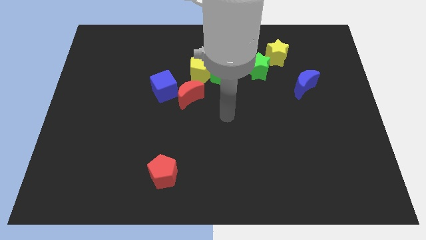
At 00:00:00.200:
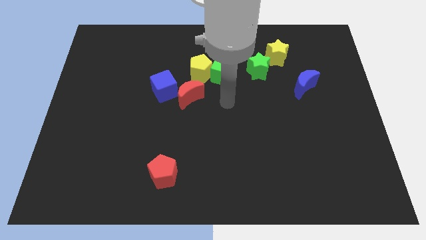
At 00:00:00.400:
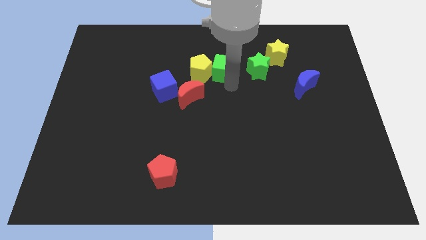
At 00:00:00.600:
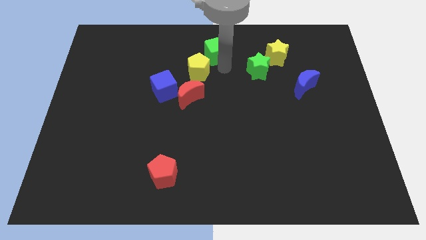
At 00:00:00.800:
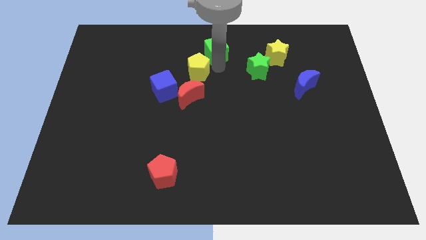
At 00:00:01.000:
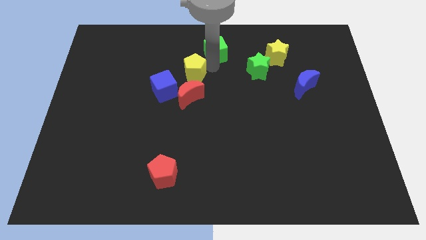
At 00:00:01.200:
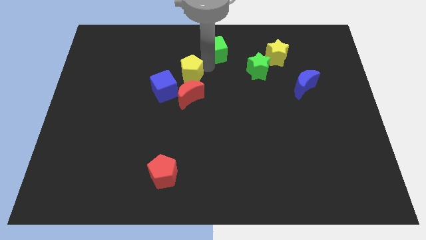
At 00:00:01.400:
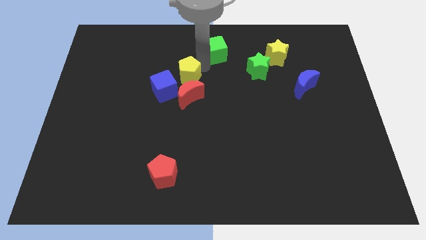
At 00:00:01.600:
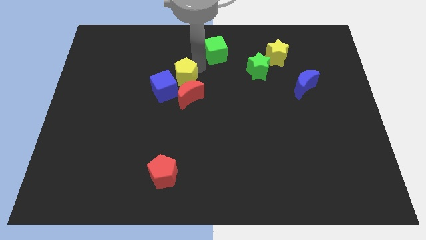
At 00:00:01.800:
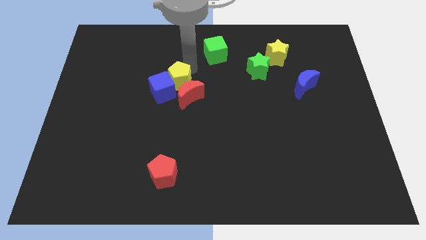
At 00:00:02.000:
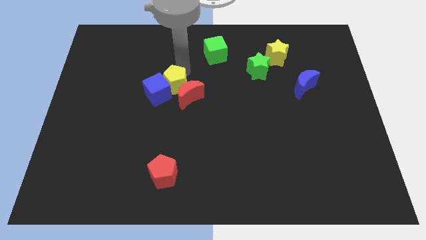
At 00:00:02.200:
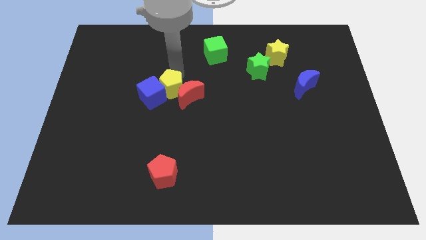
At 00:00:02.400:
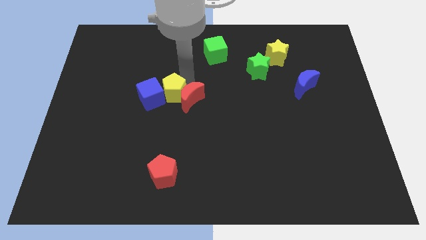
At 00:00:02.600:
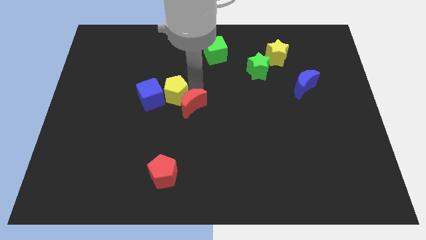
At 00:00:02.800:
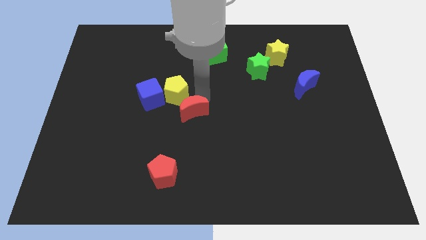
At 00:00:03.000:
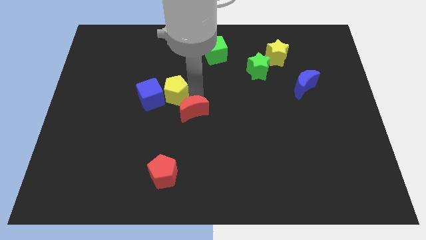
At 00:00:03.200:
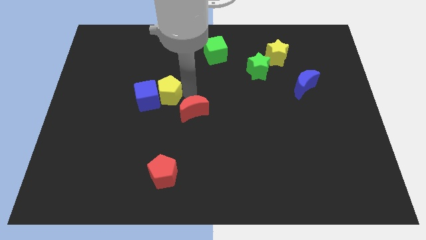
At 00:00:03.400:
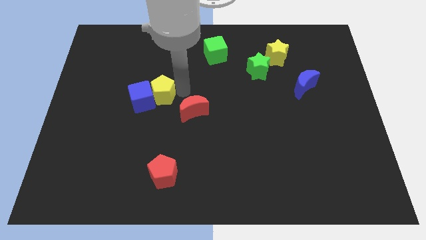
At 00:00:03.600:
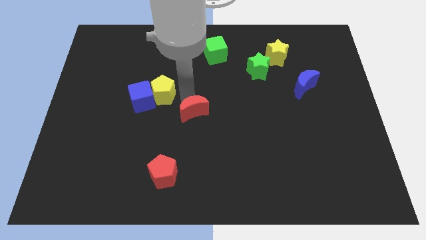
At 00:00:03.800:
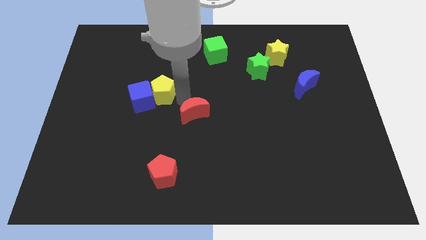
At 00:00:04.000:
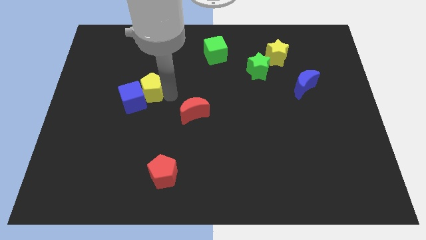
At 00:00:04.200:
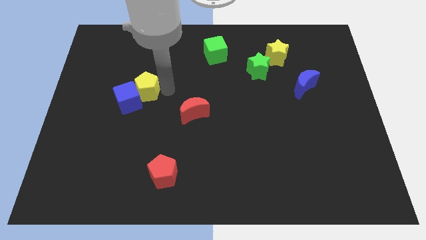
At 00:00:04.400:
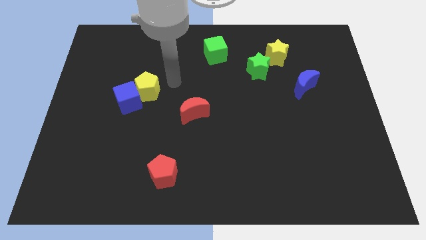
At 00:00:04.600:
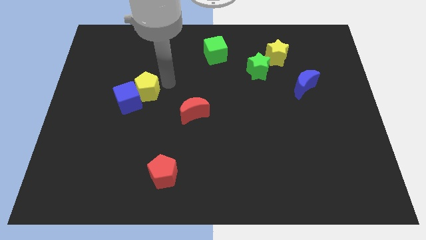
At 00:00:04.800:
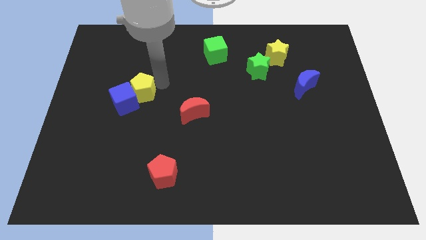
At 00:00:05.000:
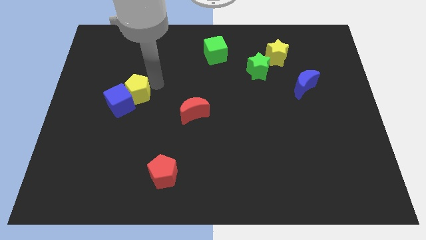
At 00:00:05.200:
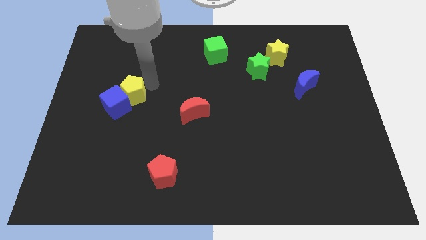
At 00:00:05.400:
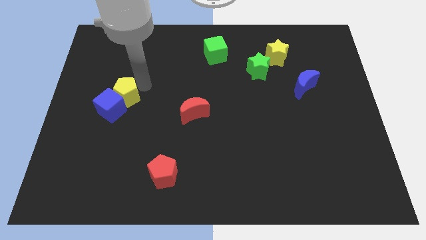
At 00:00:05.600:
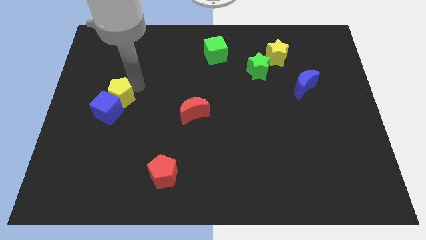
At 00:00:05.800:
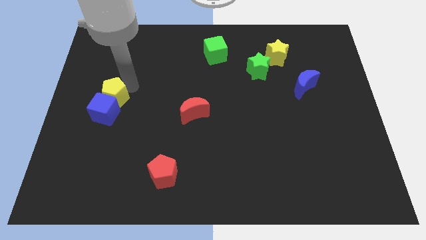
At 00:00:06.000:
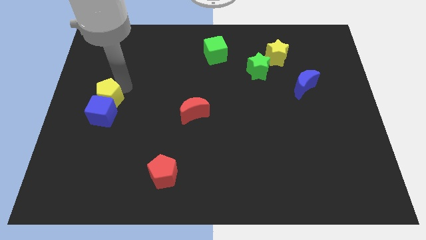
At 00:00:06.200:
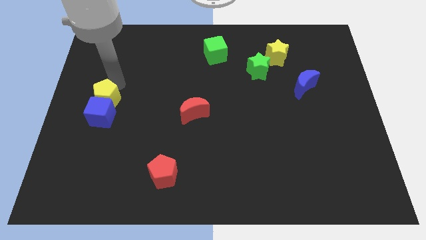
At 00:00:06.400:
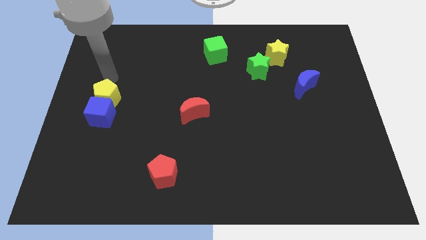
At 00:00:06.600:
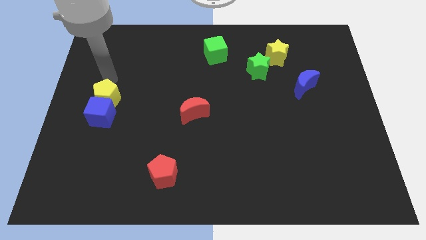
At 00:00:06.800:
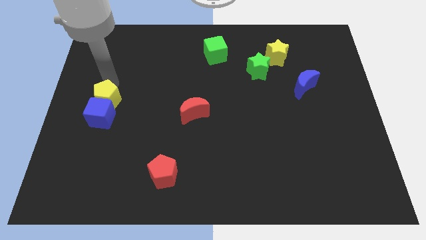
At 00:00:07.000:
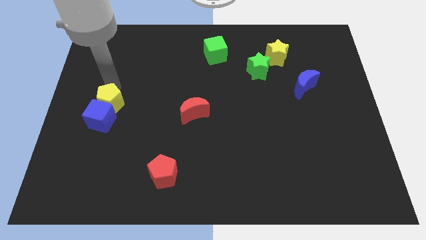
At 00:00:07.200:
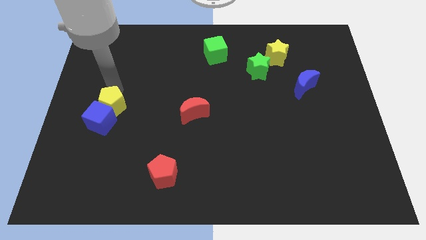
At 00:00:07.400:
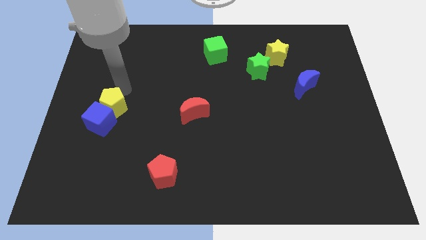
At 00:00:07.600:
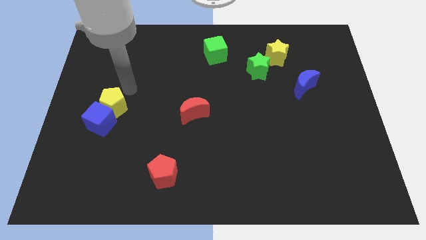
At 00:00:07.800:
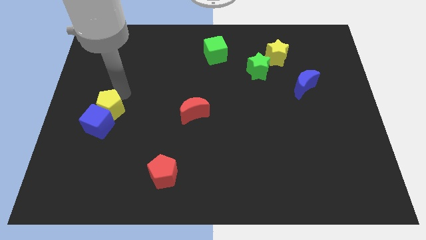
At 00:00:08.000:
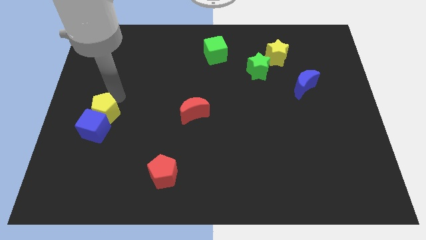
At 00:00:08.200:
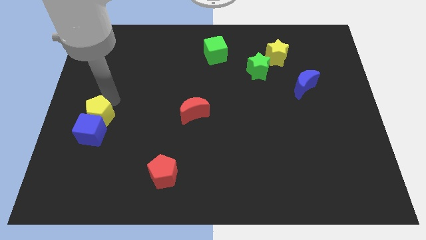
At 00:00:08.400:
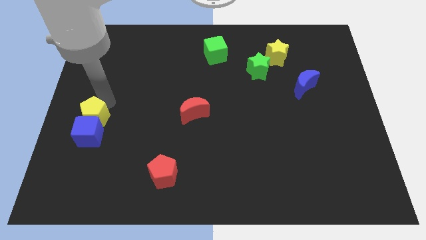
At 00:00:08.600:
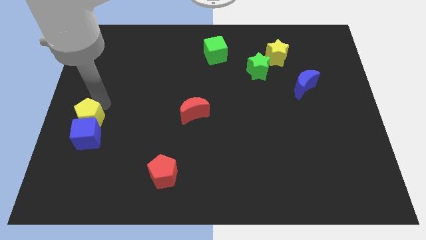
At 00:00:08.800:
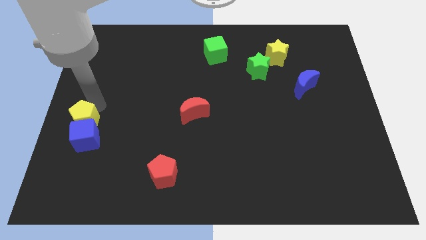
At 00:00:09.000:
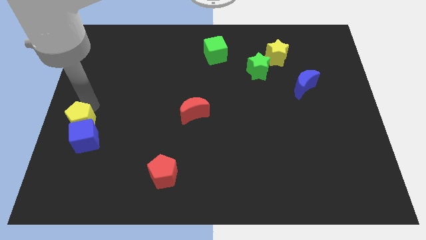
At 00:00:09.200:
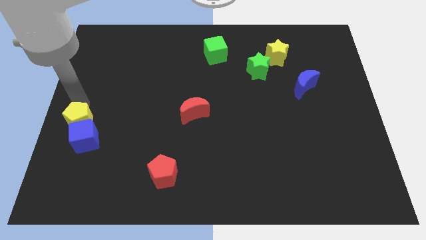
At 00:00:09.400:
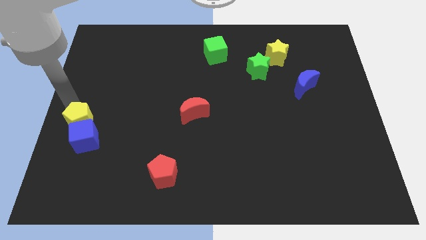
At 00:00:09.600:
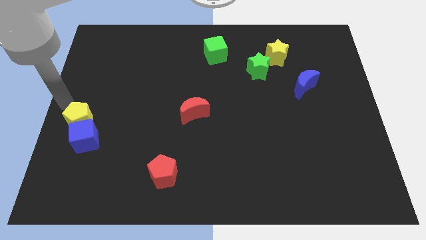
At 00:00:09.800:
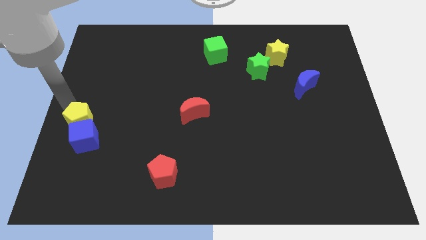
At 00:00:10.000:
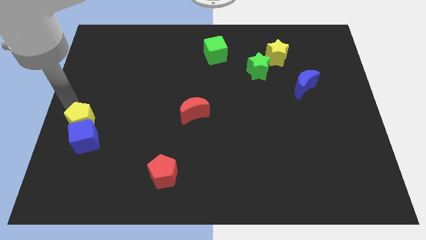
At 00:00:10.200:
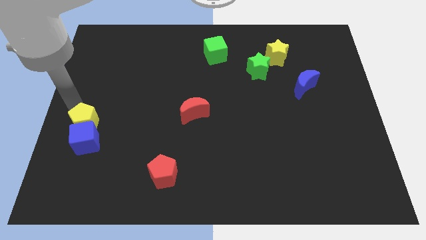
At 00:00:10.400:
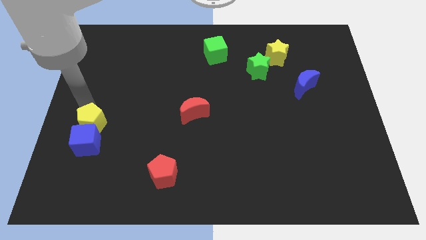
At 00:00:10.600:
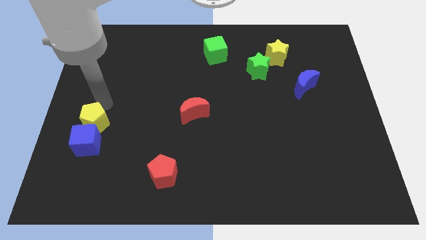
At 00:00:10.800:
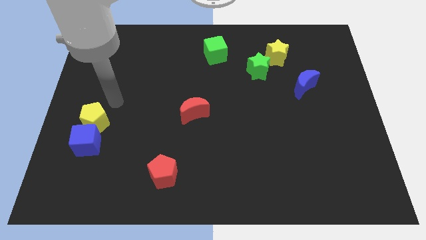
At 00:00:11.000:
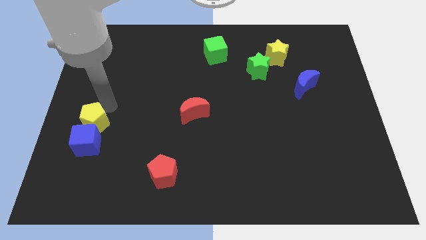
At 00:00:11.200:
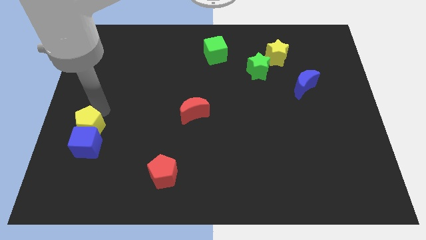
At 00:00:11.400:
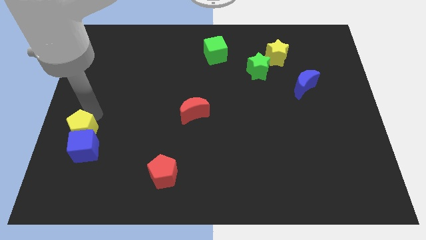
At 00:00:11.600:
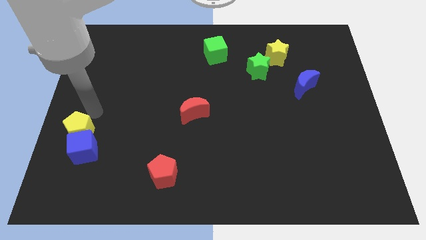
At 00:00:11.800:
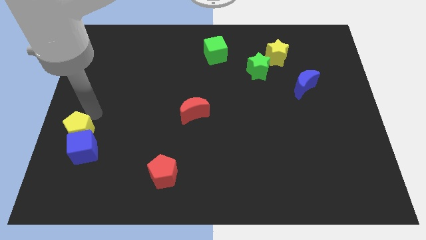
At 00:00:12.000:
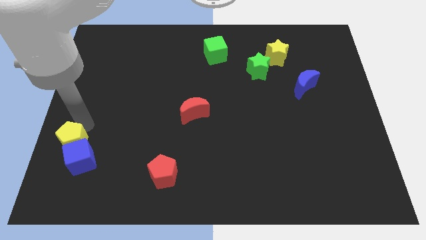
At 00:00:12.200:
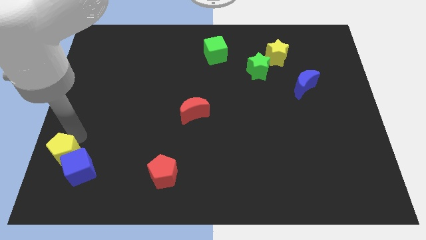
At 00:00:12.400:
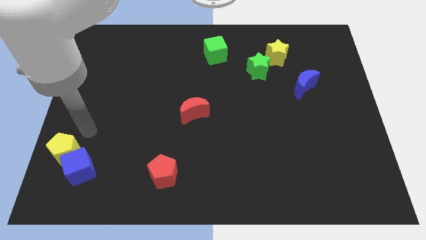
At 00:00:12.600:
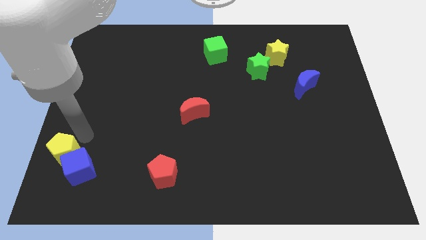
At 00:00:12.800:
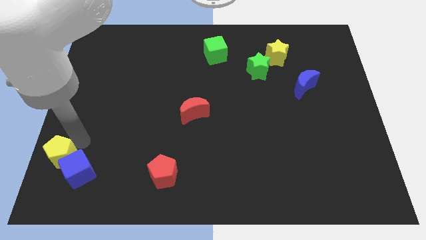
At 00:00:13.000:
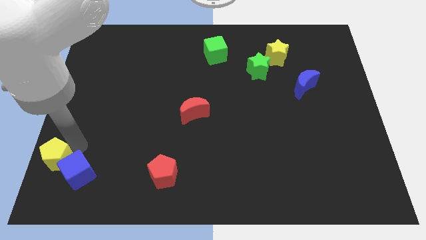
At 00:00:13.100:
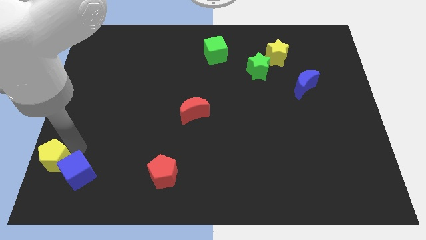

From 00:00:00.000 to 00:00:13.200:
put the yellow pentagon to the bottom left corner
